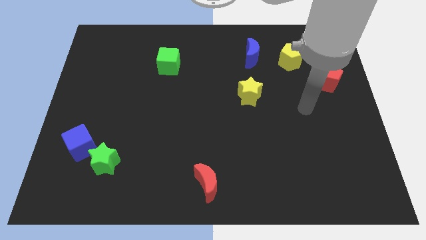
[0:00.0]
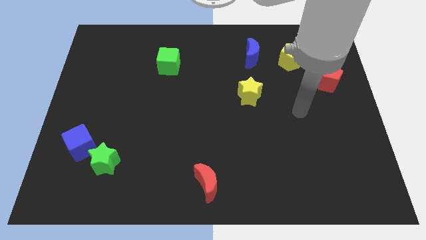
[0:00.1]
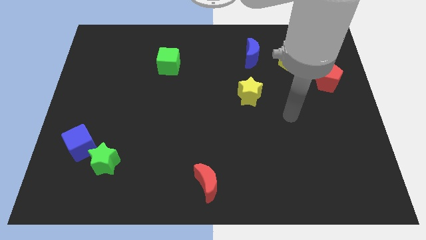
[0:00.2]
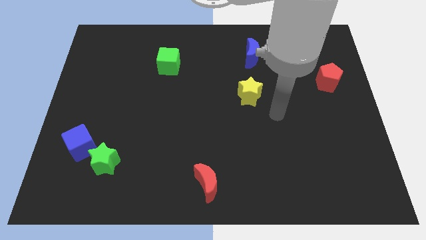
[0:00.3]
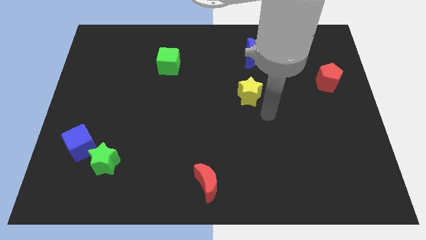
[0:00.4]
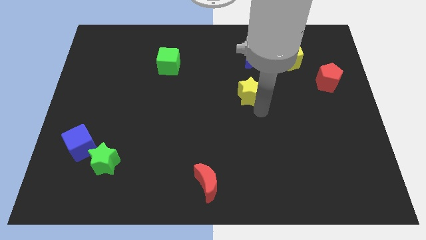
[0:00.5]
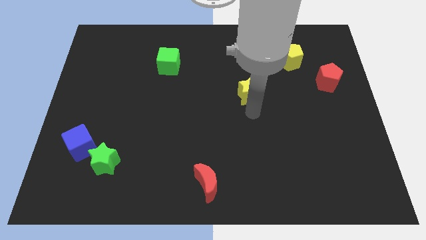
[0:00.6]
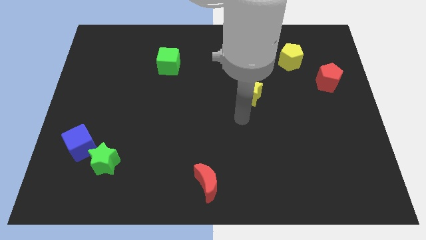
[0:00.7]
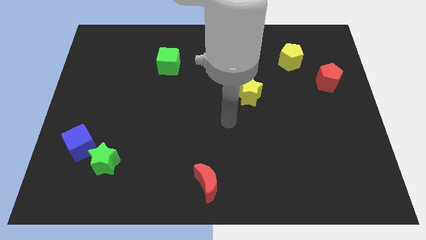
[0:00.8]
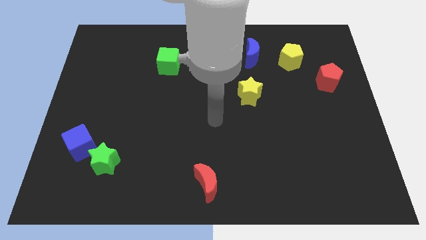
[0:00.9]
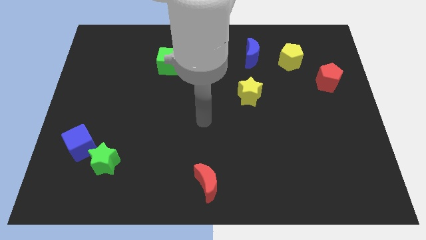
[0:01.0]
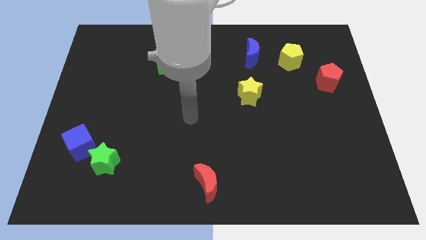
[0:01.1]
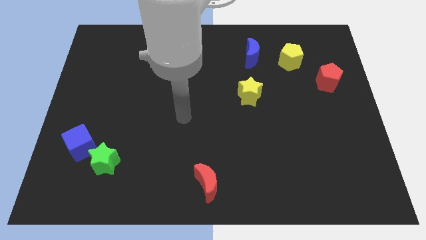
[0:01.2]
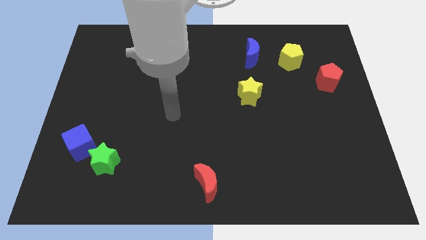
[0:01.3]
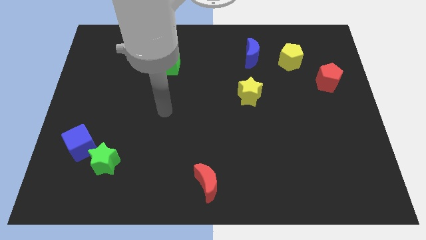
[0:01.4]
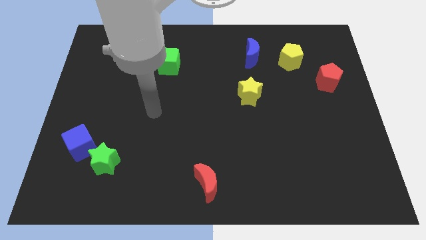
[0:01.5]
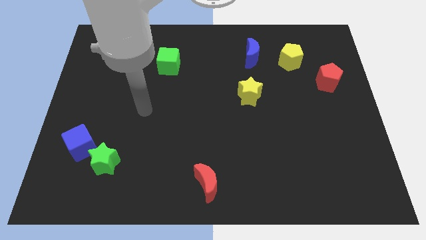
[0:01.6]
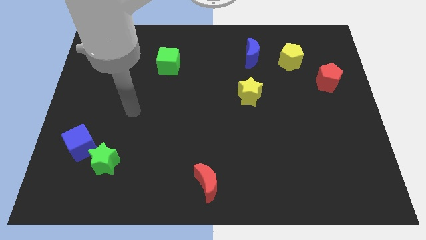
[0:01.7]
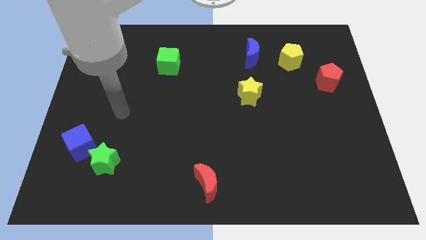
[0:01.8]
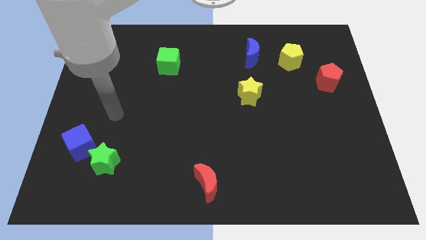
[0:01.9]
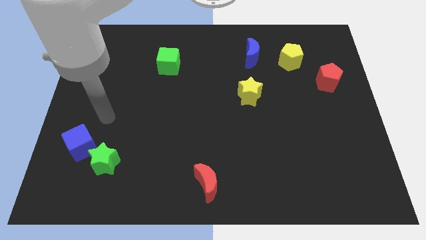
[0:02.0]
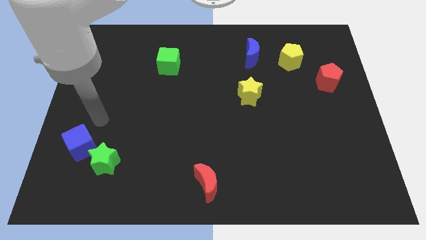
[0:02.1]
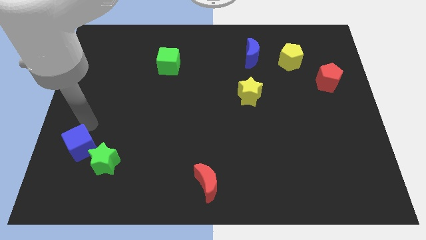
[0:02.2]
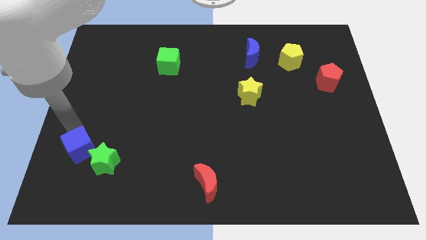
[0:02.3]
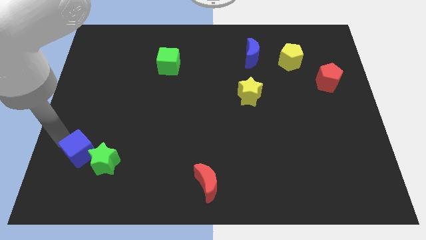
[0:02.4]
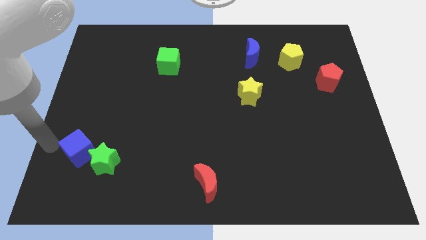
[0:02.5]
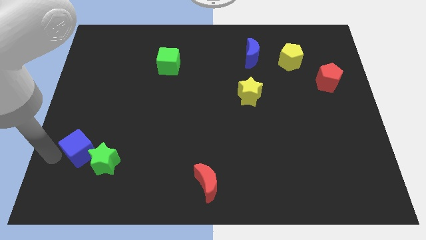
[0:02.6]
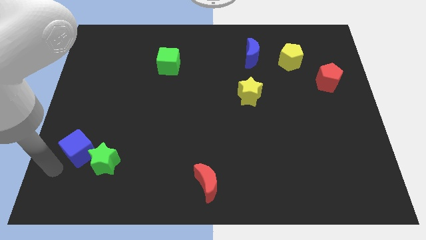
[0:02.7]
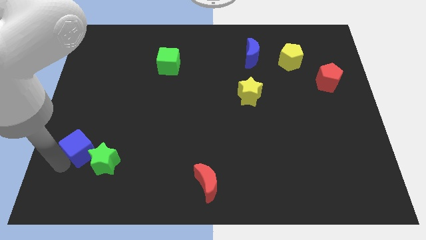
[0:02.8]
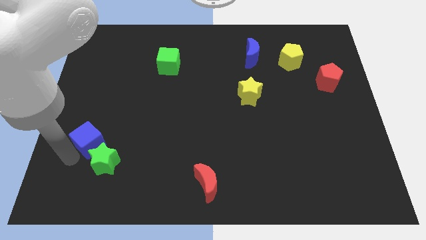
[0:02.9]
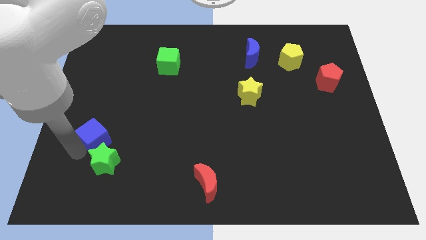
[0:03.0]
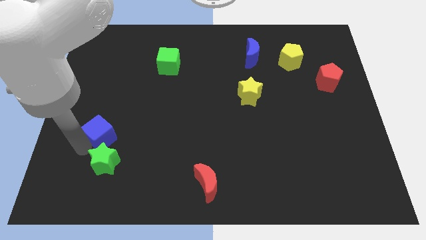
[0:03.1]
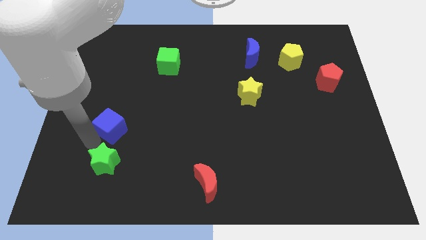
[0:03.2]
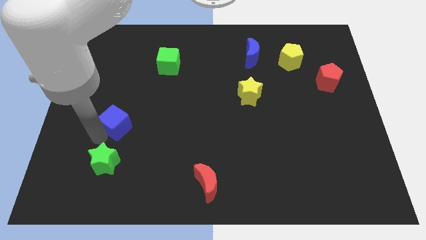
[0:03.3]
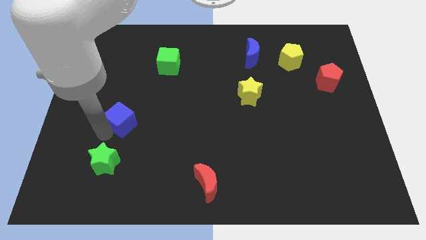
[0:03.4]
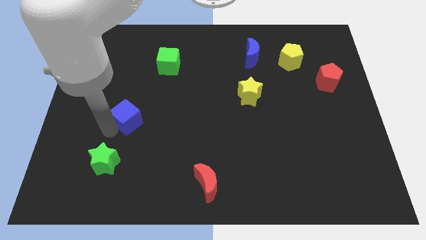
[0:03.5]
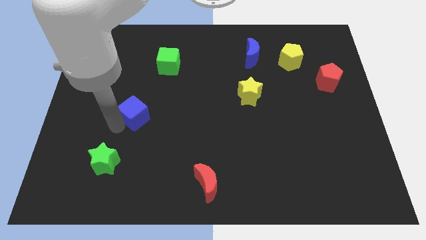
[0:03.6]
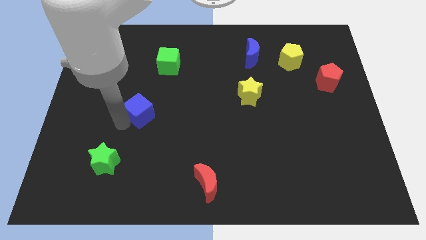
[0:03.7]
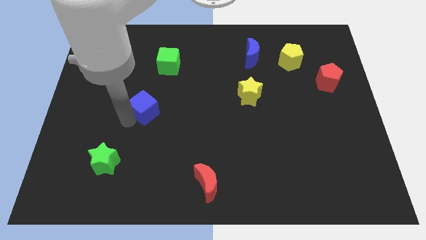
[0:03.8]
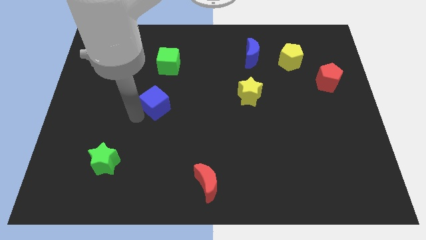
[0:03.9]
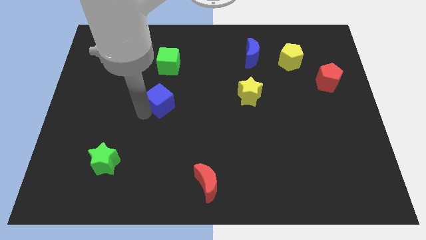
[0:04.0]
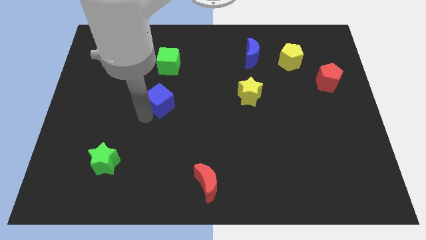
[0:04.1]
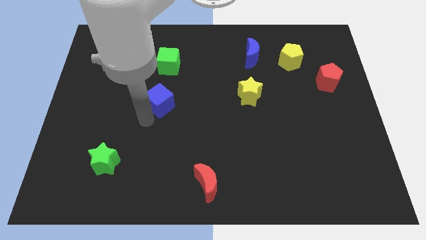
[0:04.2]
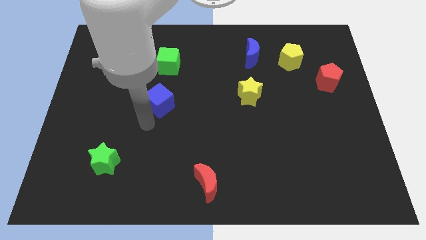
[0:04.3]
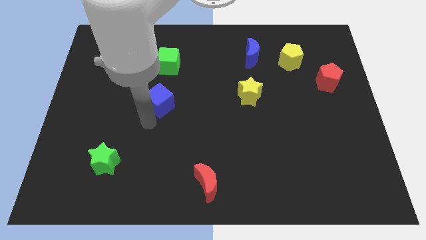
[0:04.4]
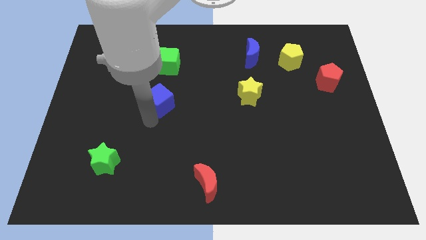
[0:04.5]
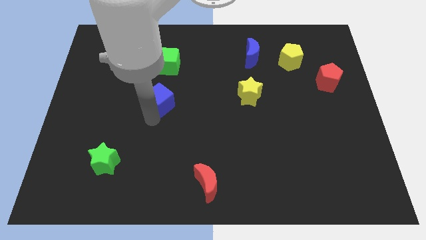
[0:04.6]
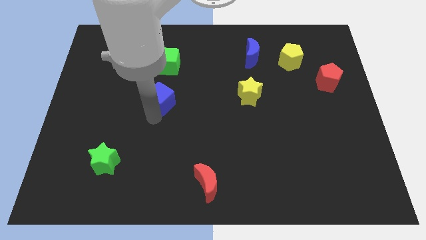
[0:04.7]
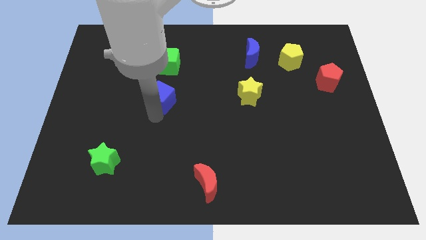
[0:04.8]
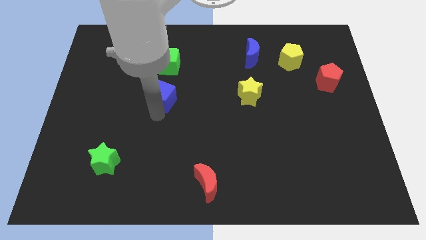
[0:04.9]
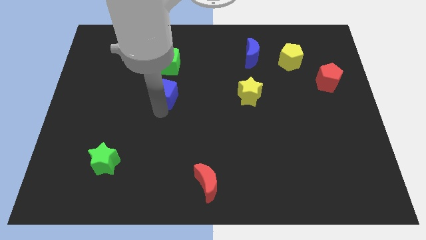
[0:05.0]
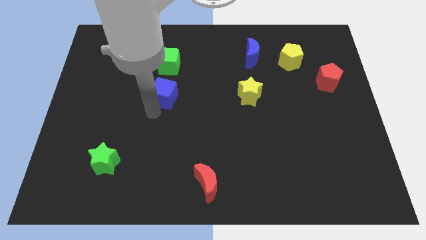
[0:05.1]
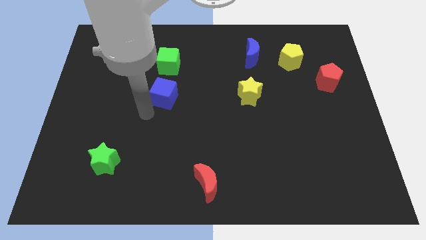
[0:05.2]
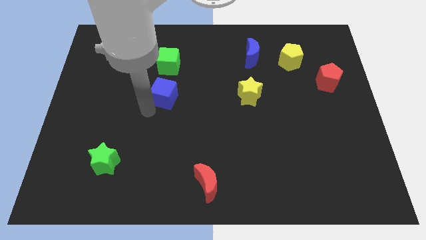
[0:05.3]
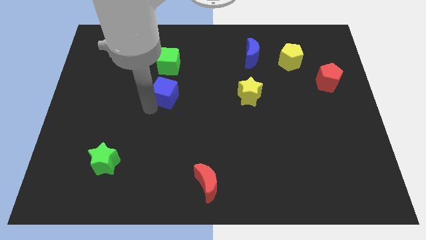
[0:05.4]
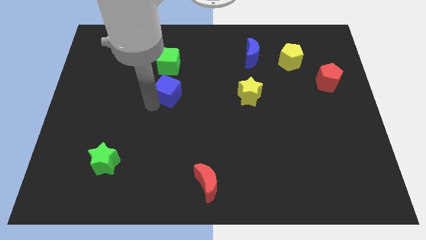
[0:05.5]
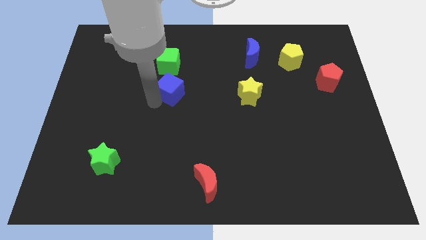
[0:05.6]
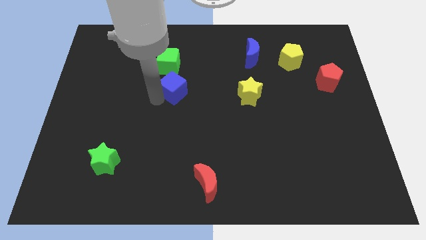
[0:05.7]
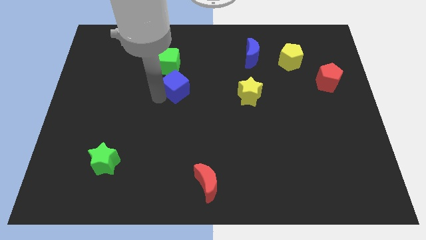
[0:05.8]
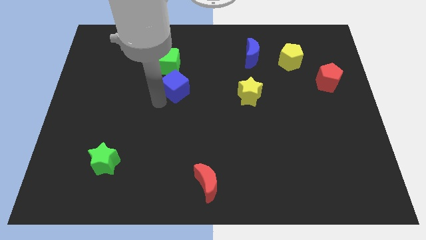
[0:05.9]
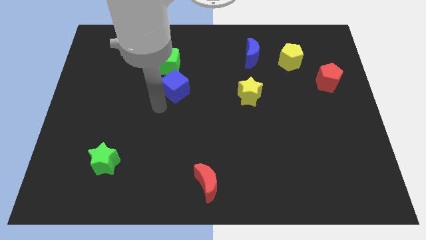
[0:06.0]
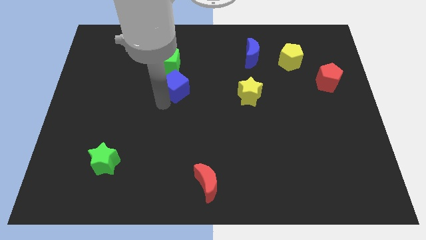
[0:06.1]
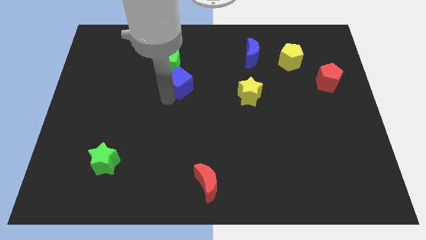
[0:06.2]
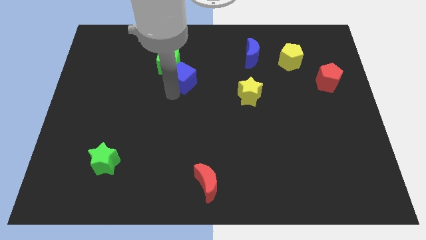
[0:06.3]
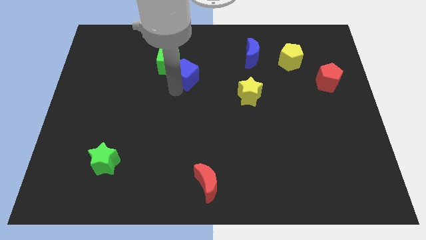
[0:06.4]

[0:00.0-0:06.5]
push the blue cube just right of the green cube

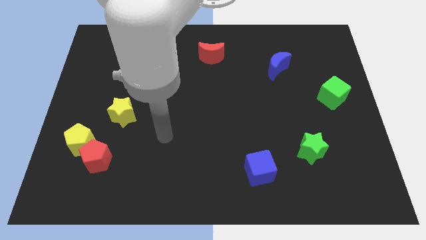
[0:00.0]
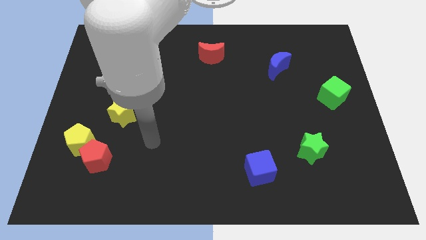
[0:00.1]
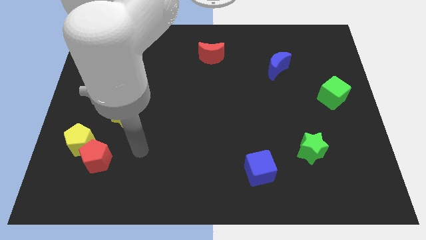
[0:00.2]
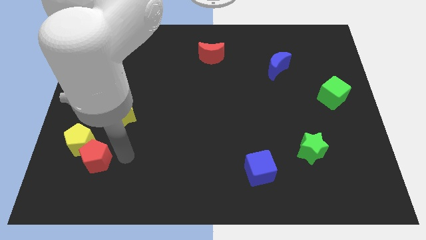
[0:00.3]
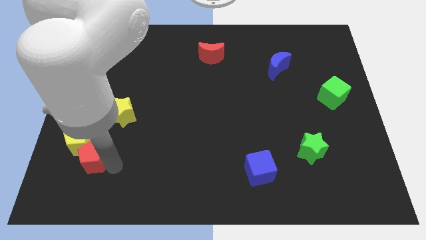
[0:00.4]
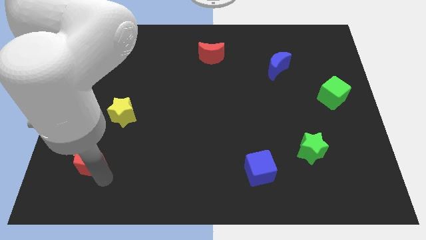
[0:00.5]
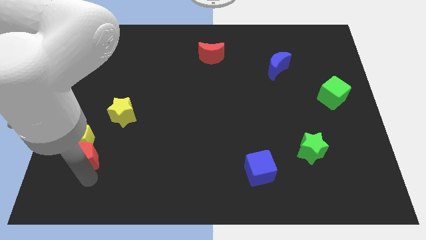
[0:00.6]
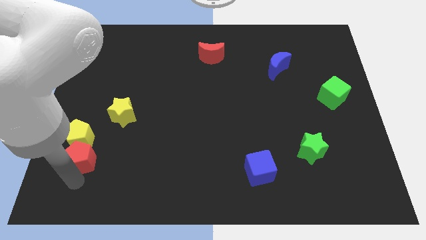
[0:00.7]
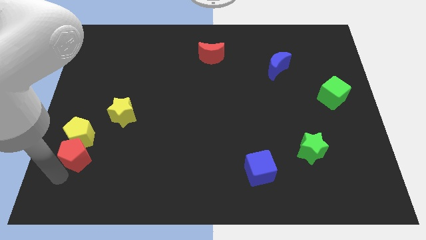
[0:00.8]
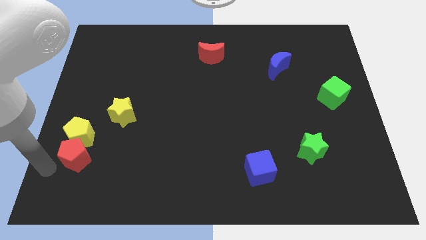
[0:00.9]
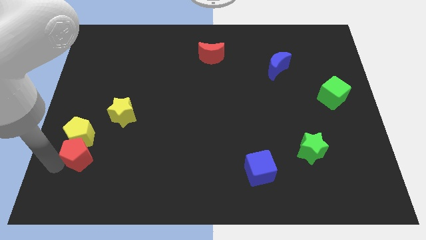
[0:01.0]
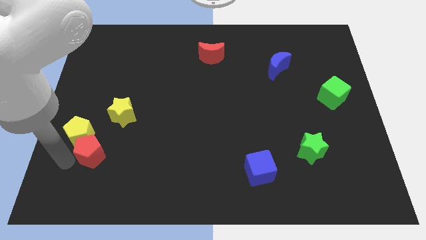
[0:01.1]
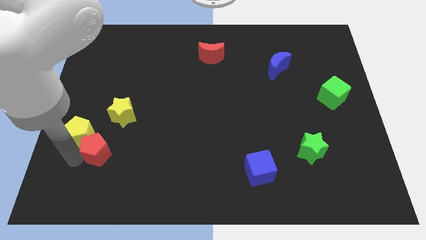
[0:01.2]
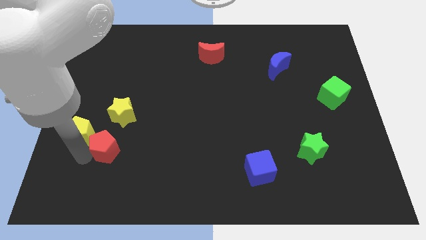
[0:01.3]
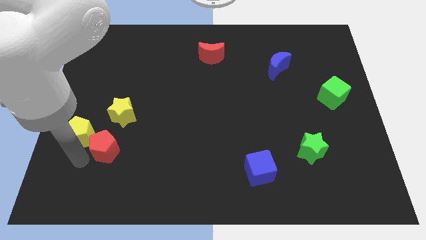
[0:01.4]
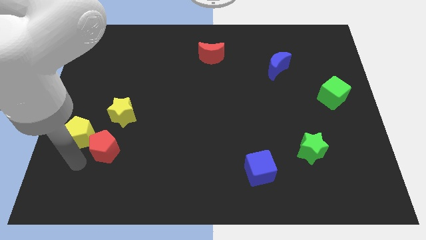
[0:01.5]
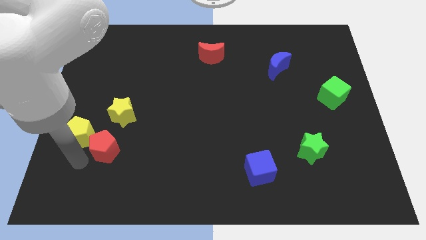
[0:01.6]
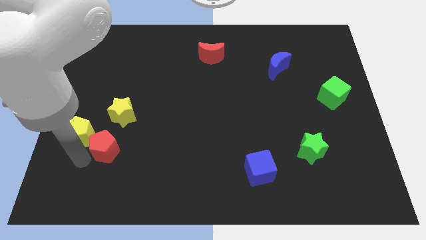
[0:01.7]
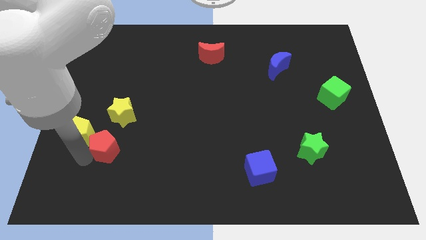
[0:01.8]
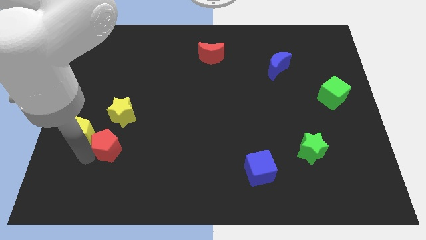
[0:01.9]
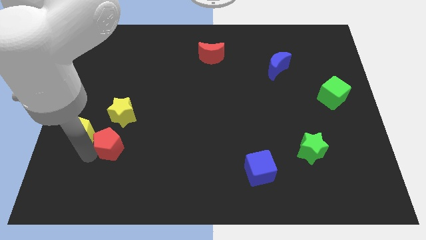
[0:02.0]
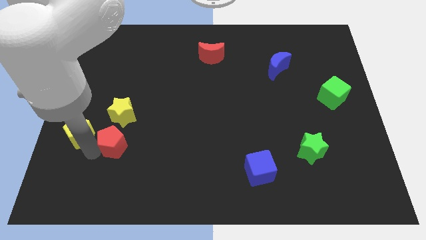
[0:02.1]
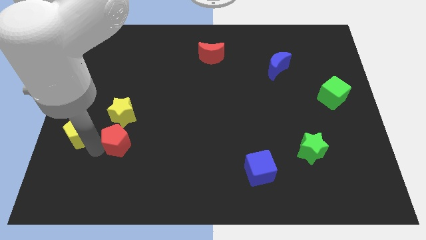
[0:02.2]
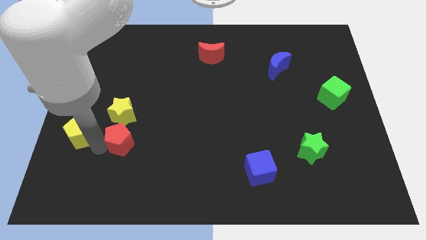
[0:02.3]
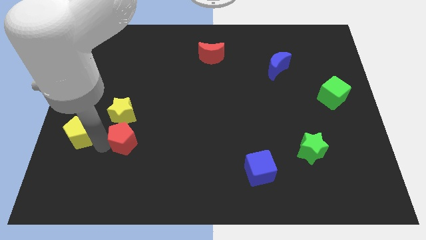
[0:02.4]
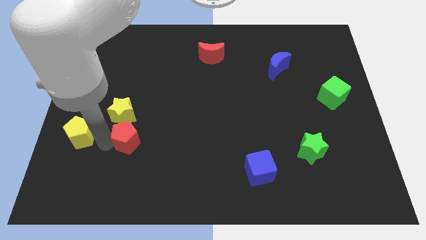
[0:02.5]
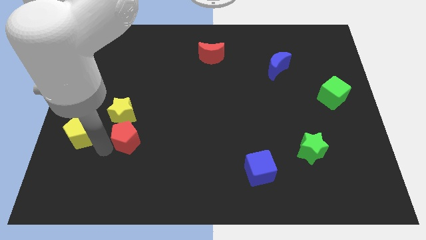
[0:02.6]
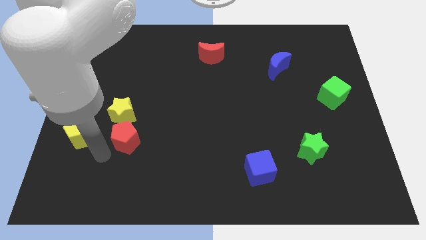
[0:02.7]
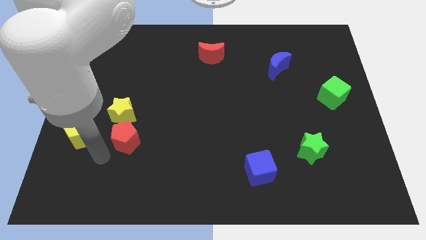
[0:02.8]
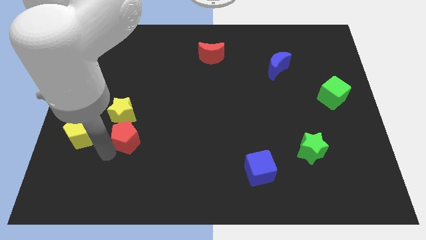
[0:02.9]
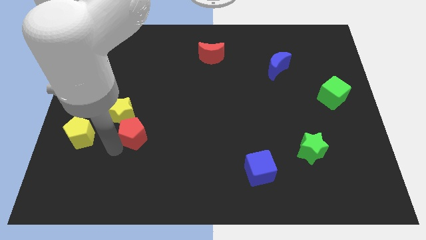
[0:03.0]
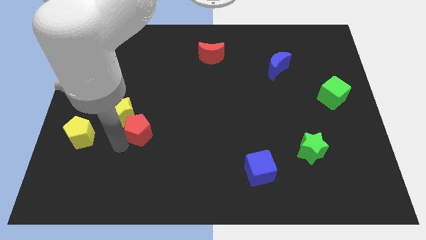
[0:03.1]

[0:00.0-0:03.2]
move the red pentagon to the right side of the yellow star
